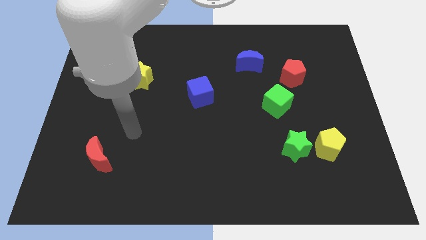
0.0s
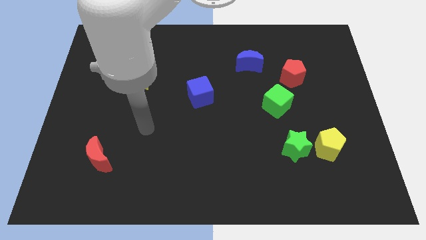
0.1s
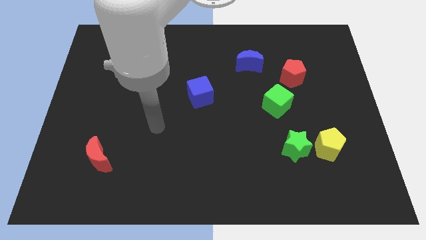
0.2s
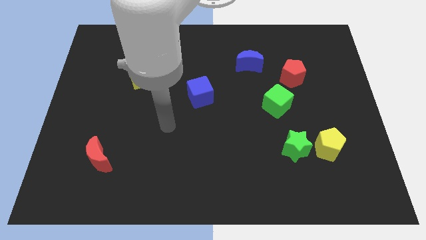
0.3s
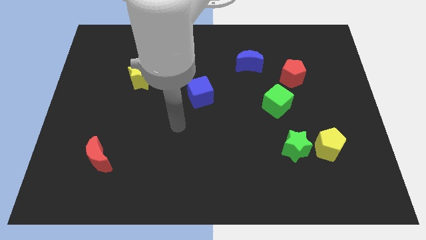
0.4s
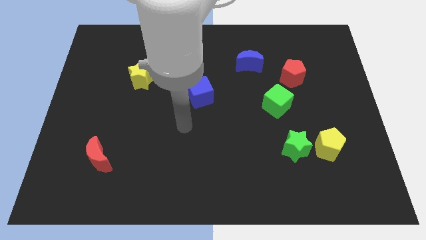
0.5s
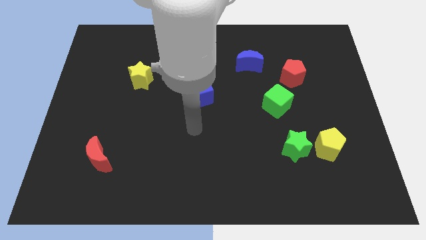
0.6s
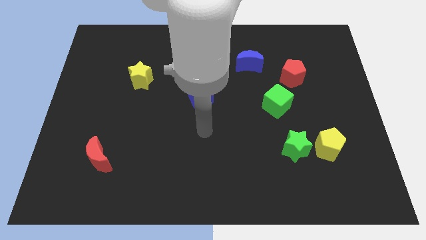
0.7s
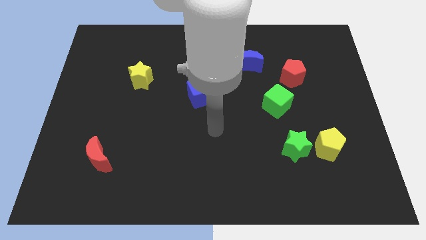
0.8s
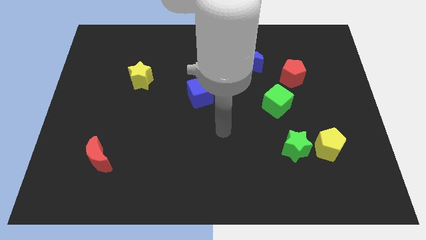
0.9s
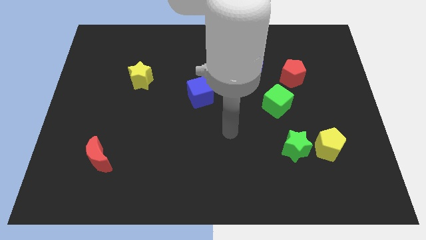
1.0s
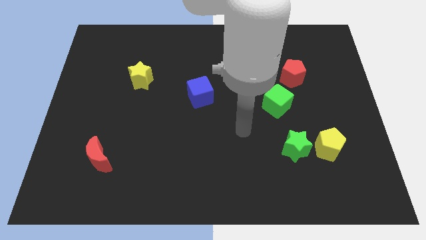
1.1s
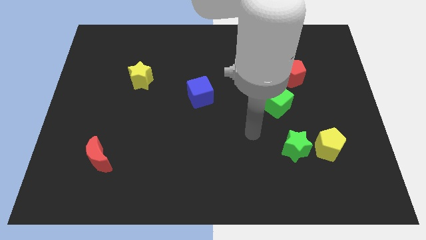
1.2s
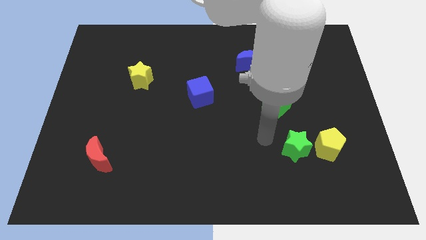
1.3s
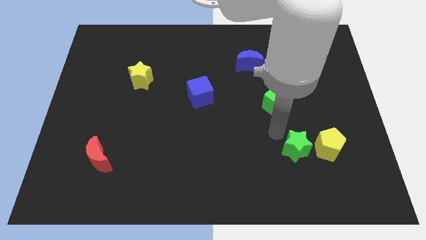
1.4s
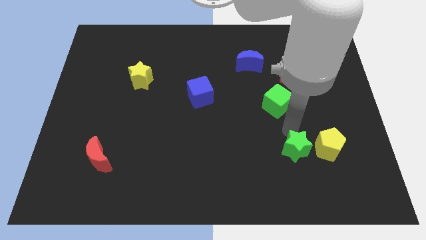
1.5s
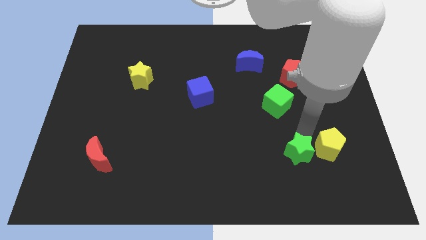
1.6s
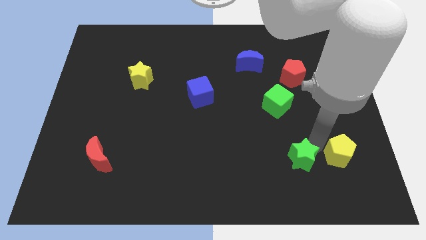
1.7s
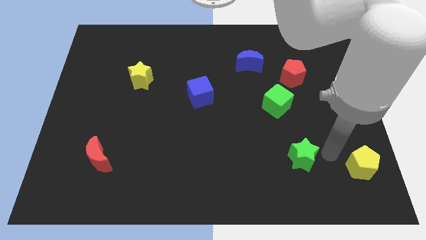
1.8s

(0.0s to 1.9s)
separate the green star from the yellow pentagon

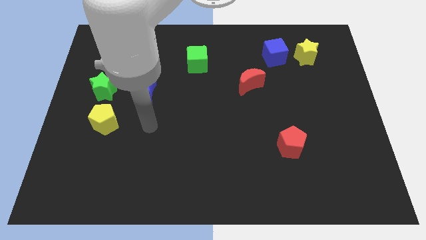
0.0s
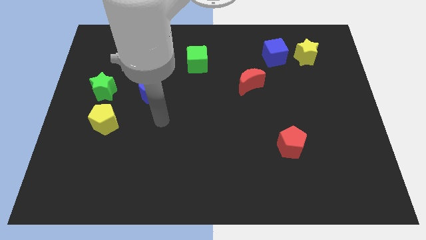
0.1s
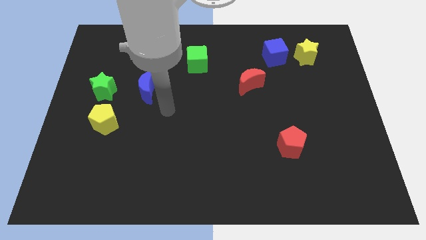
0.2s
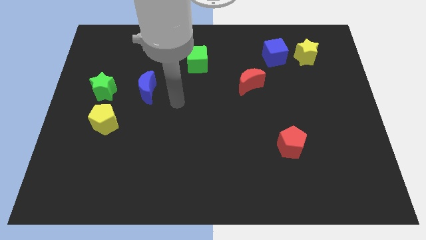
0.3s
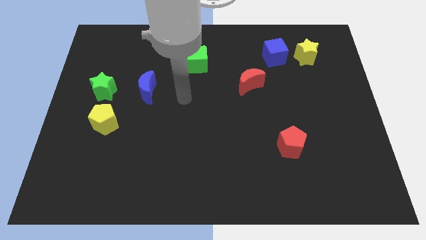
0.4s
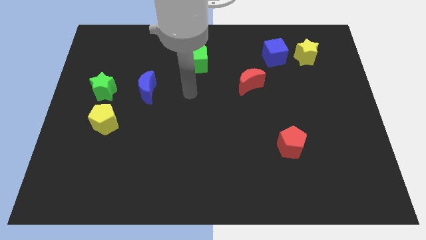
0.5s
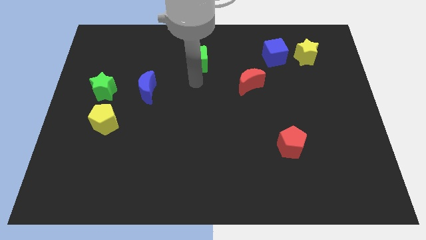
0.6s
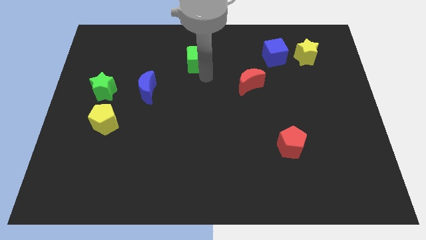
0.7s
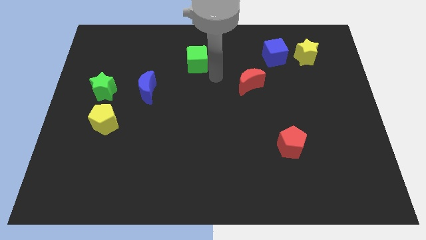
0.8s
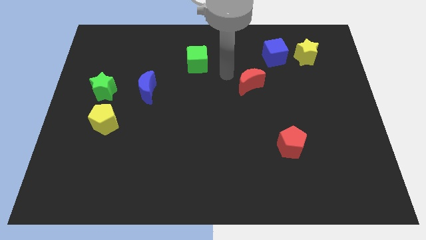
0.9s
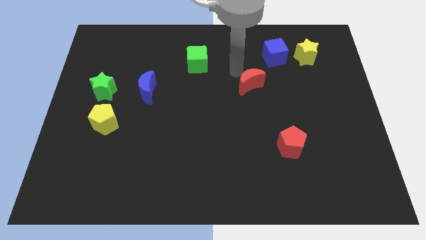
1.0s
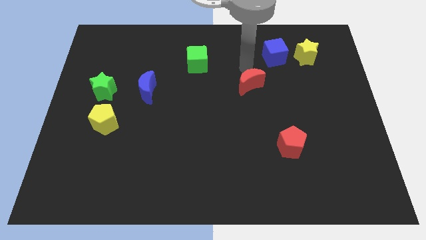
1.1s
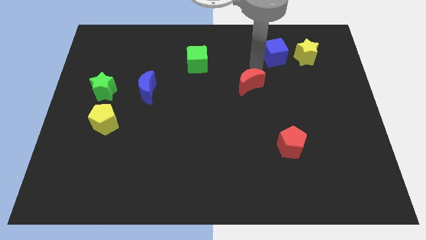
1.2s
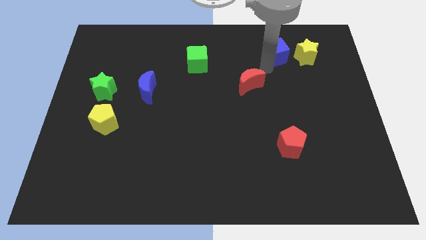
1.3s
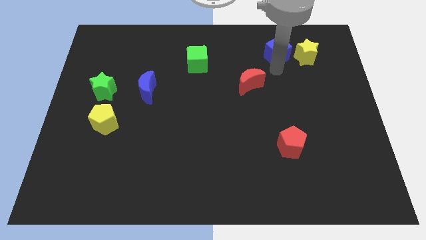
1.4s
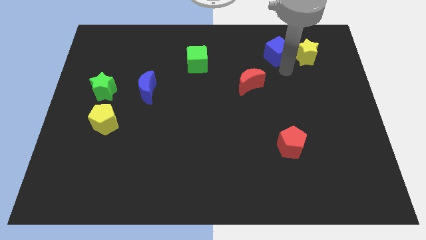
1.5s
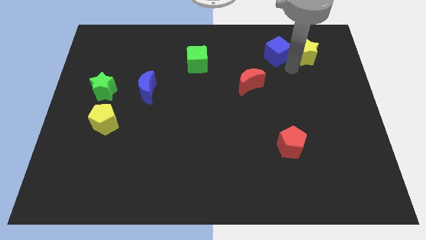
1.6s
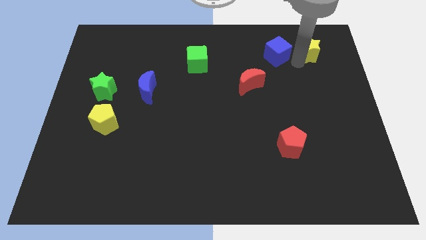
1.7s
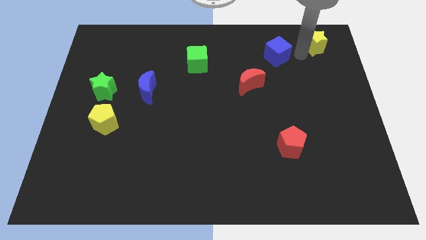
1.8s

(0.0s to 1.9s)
pull the blue cube apart from the yellow star

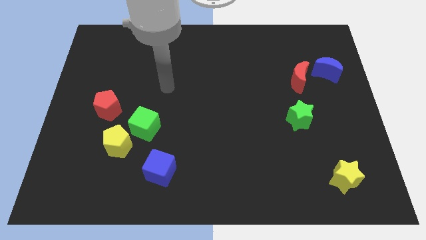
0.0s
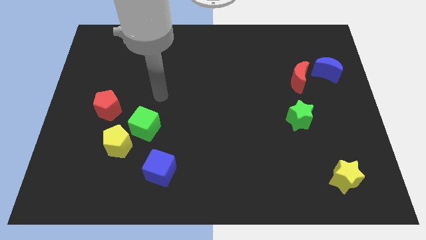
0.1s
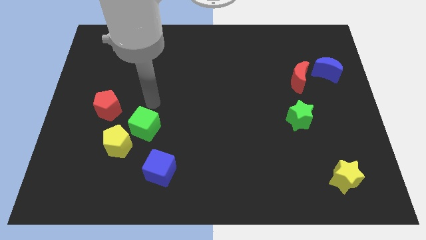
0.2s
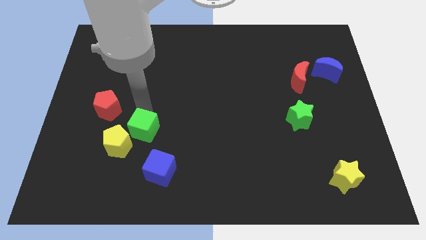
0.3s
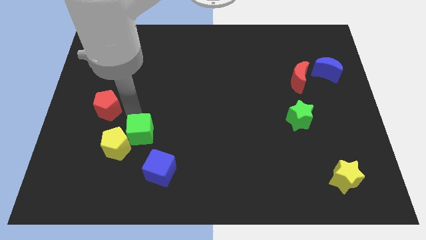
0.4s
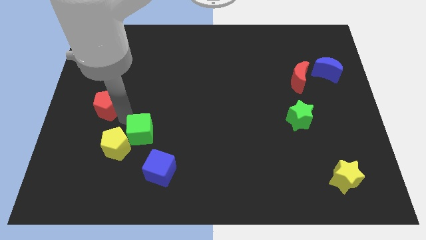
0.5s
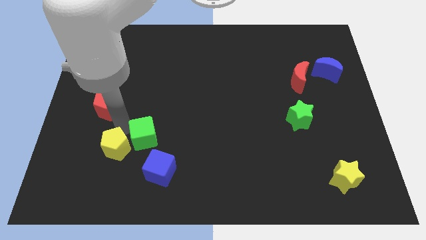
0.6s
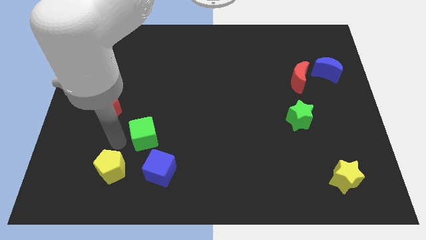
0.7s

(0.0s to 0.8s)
pull the green cube apart from the yellow pentagon

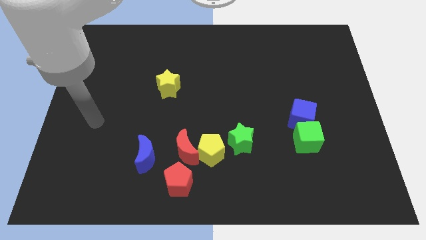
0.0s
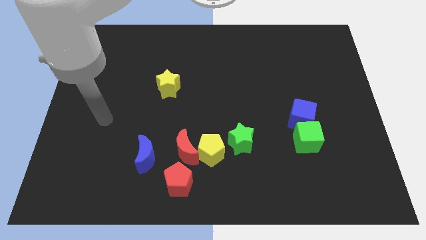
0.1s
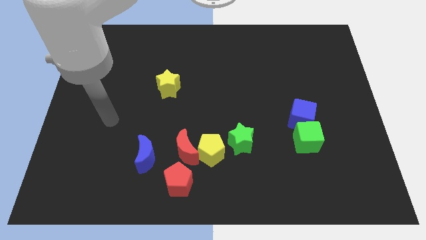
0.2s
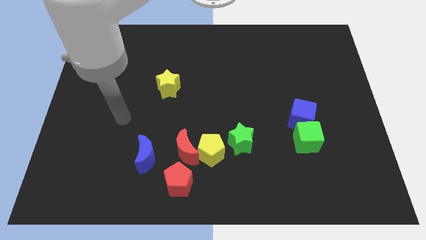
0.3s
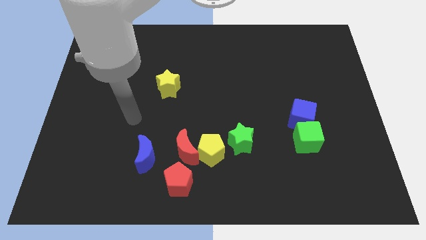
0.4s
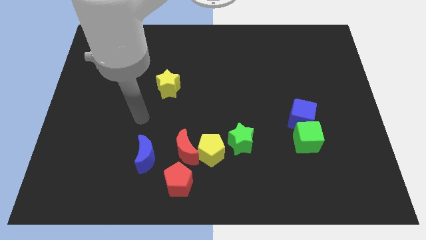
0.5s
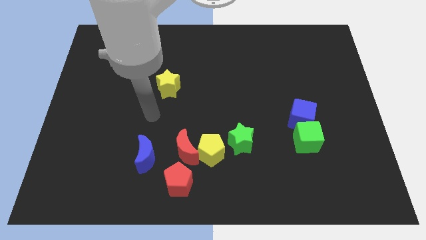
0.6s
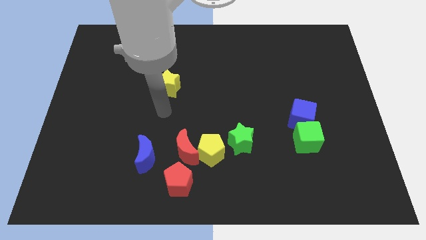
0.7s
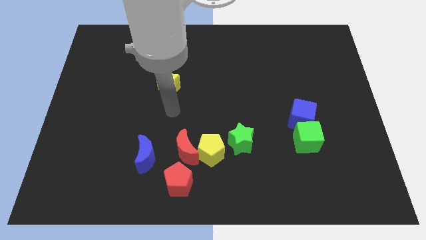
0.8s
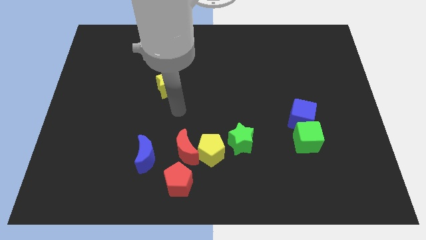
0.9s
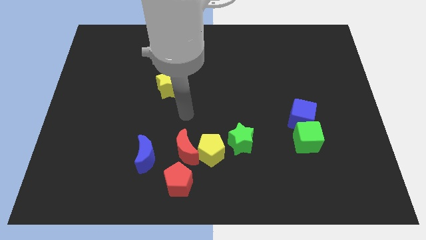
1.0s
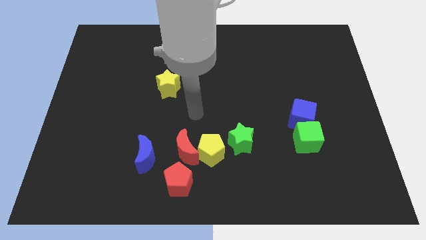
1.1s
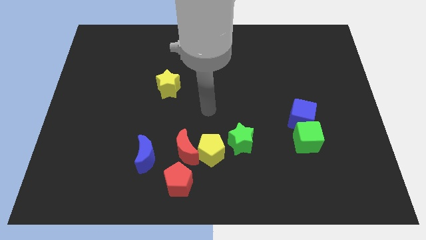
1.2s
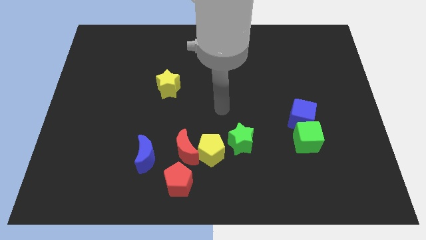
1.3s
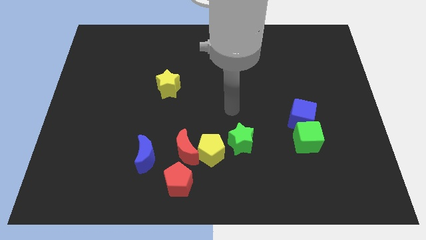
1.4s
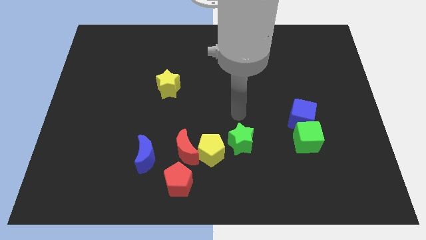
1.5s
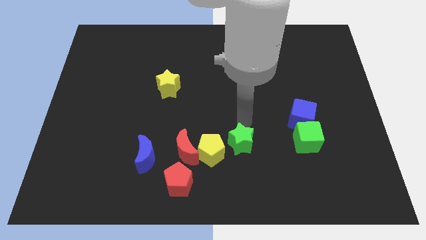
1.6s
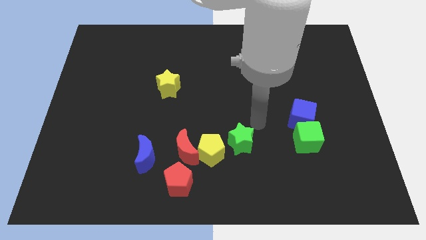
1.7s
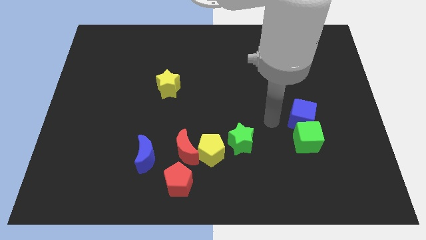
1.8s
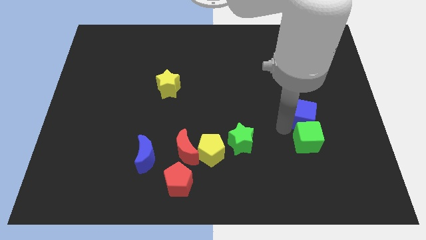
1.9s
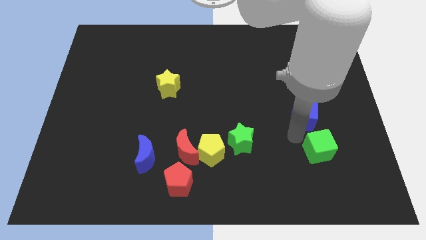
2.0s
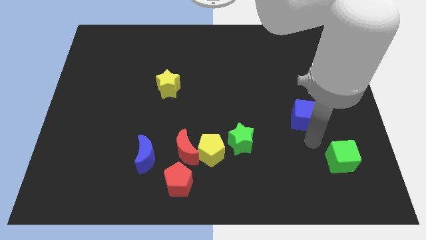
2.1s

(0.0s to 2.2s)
pull the blue cube apart from the green cube

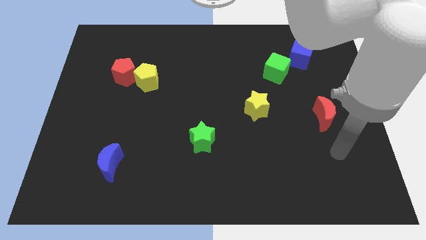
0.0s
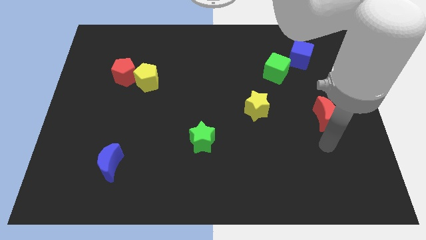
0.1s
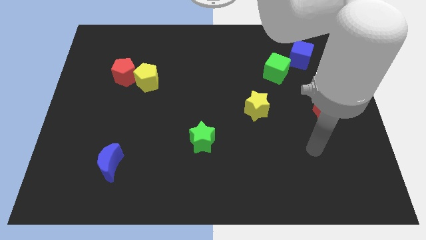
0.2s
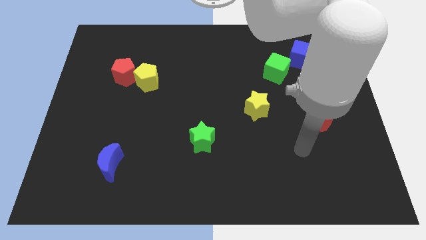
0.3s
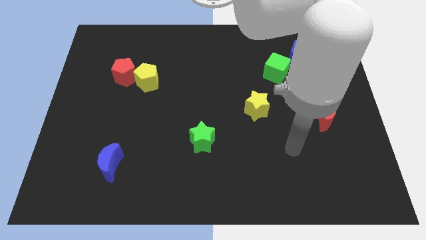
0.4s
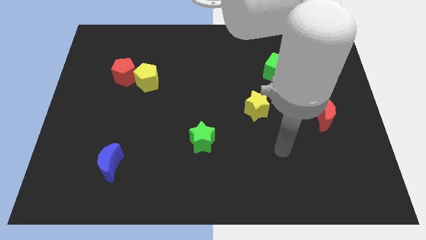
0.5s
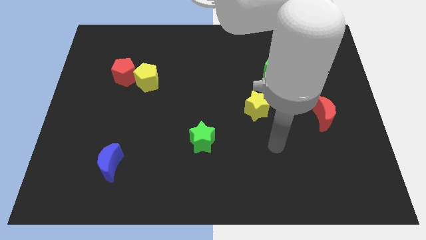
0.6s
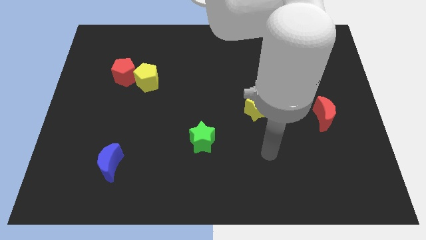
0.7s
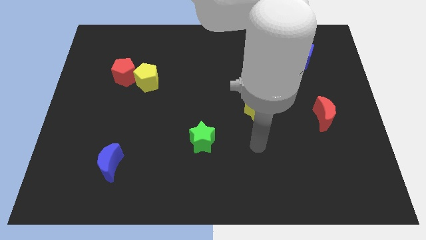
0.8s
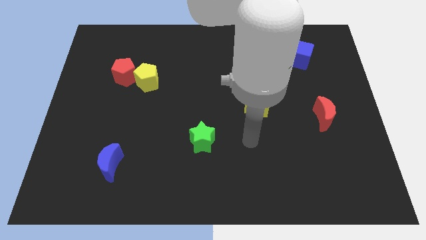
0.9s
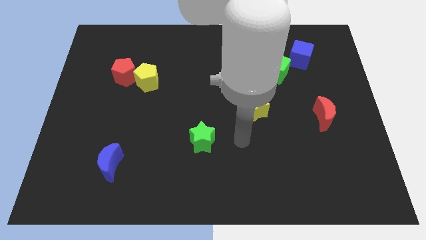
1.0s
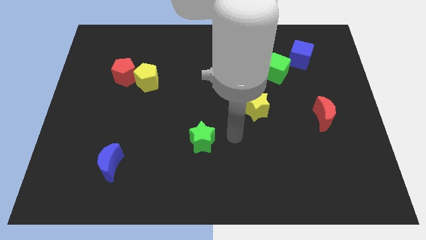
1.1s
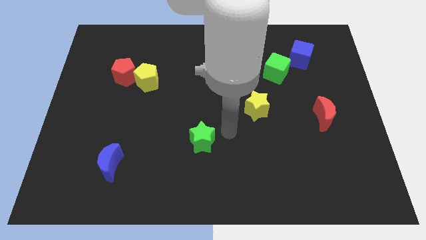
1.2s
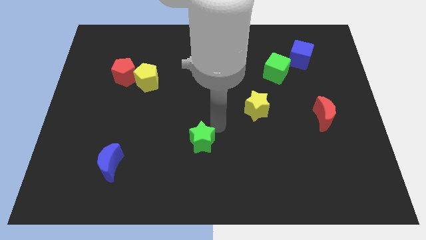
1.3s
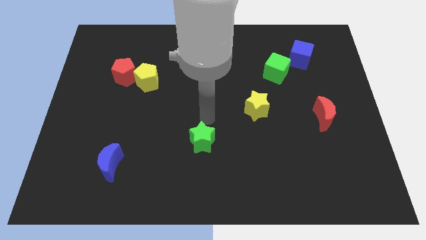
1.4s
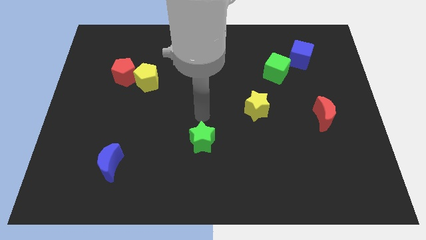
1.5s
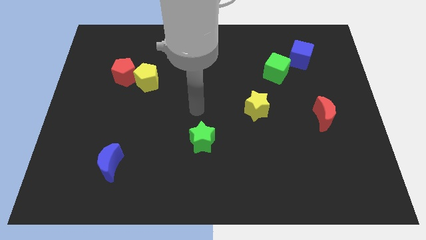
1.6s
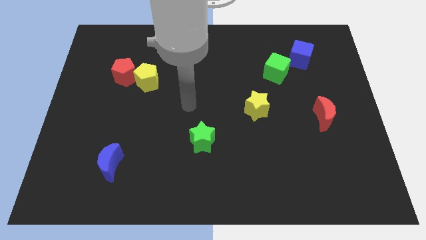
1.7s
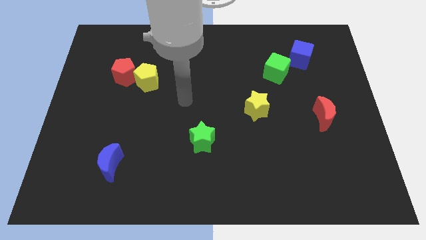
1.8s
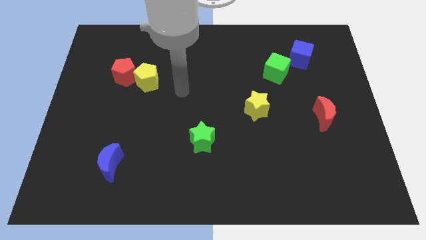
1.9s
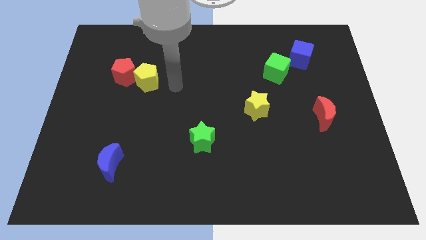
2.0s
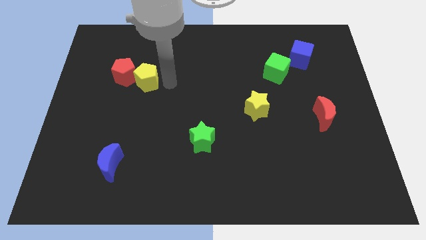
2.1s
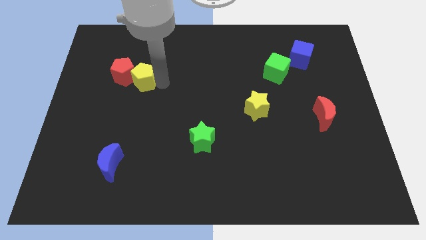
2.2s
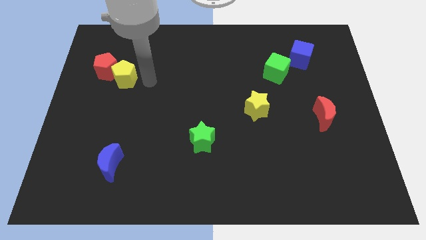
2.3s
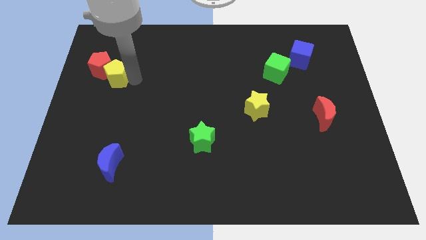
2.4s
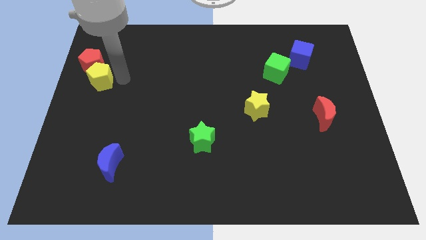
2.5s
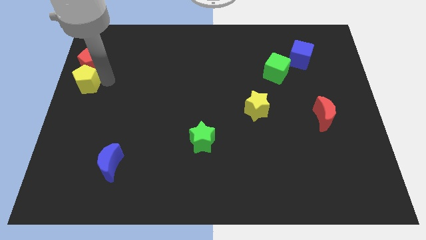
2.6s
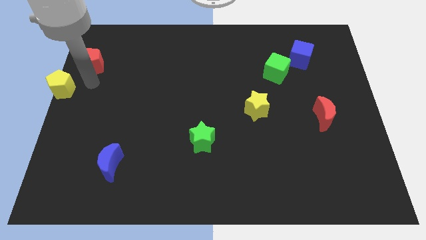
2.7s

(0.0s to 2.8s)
pull the red pentagon apart from the yellow pentagon
